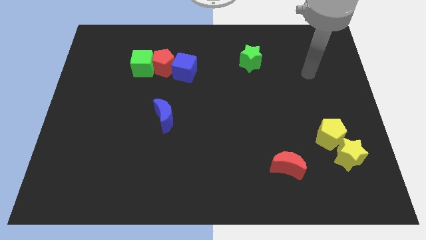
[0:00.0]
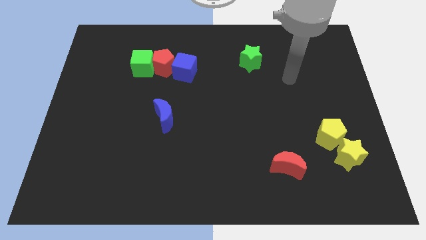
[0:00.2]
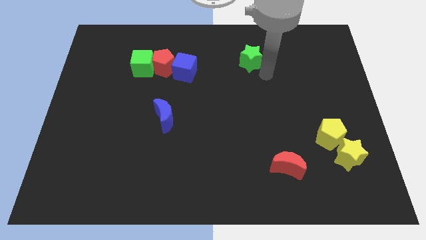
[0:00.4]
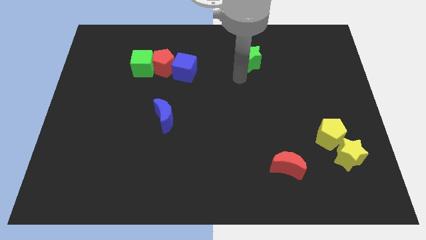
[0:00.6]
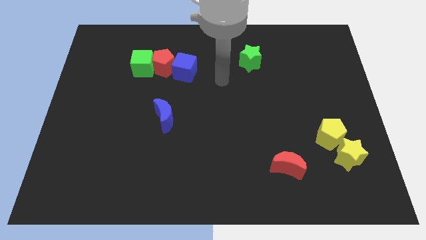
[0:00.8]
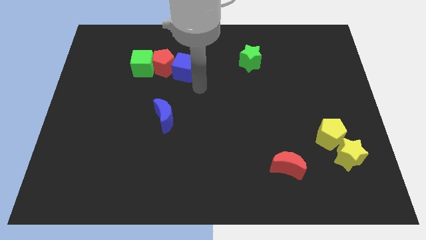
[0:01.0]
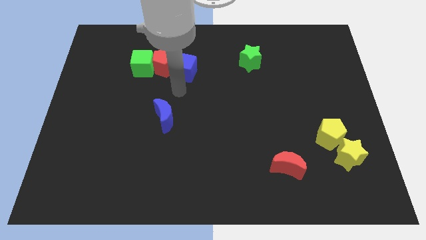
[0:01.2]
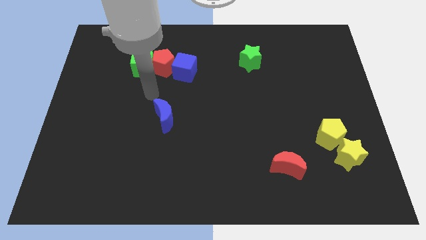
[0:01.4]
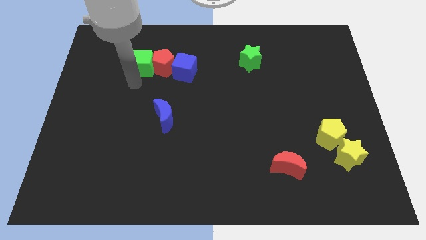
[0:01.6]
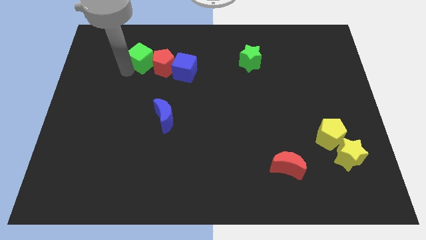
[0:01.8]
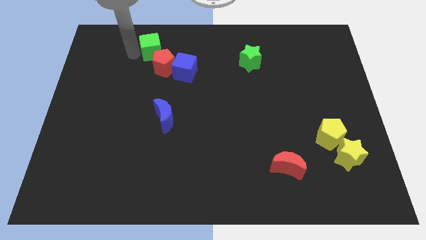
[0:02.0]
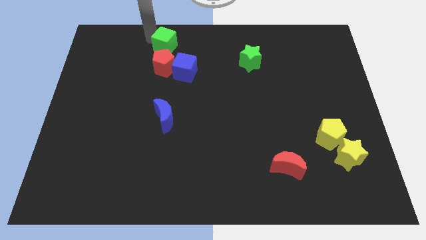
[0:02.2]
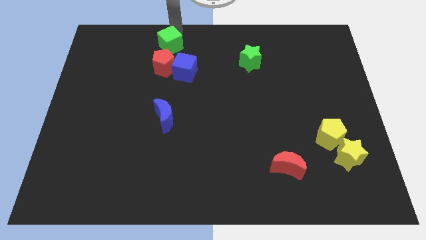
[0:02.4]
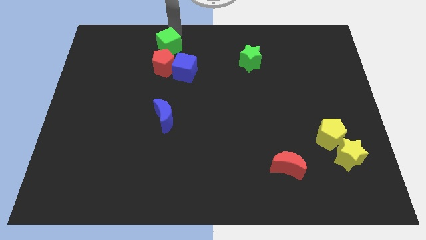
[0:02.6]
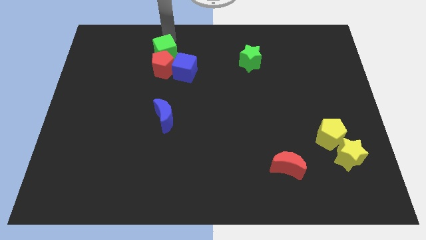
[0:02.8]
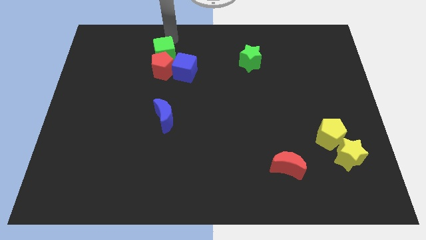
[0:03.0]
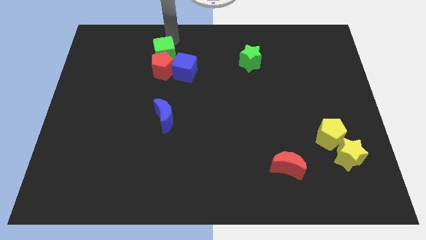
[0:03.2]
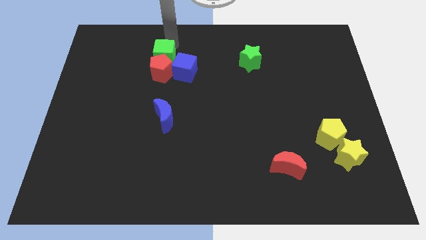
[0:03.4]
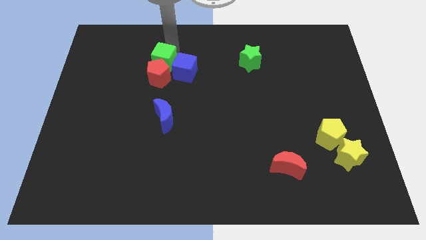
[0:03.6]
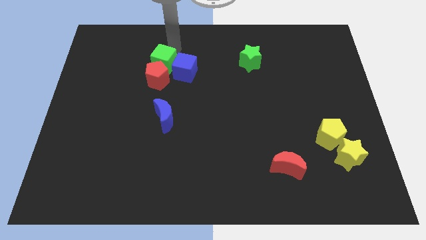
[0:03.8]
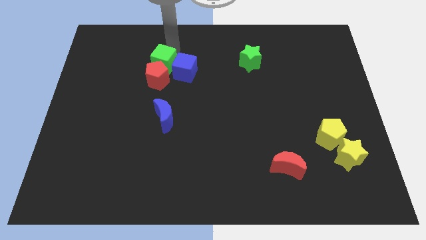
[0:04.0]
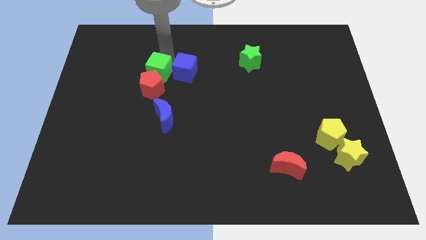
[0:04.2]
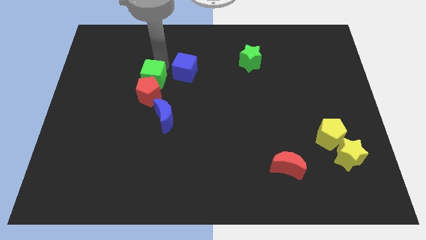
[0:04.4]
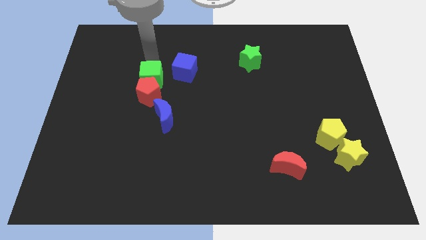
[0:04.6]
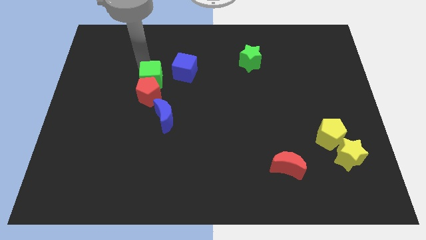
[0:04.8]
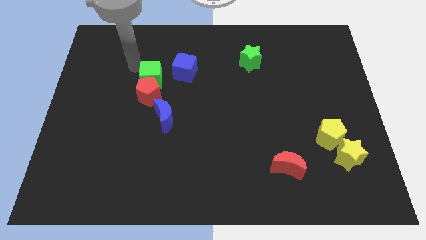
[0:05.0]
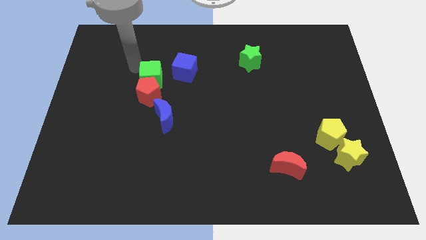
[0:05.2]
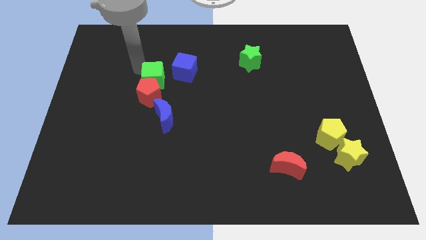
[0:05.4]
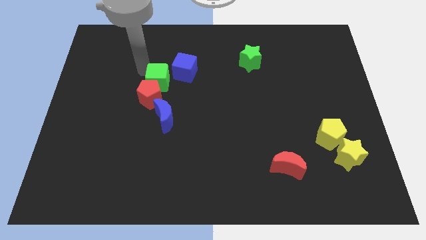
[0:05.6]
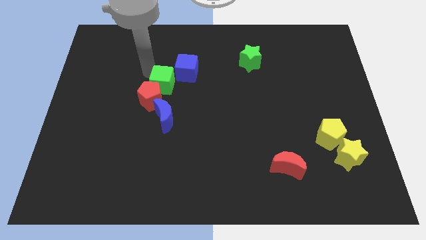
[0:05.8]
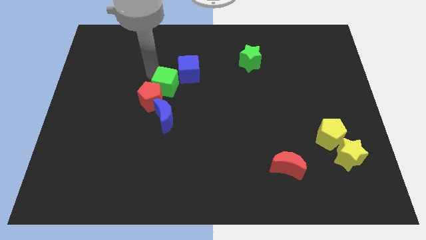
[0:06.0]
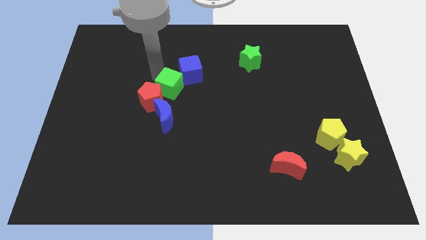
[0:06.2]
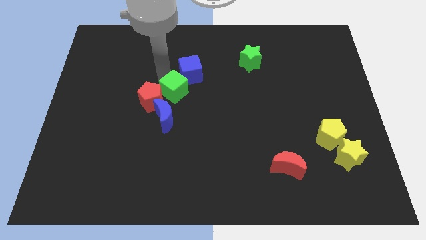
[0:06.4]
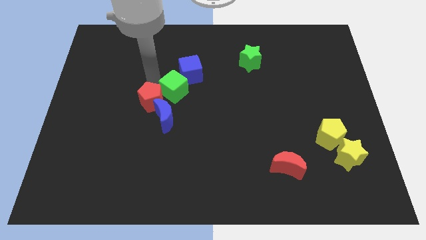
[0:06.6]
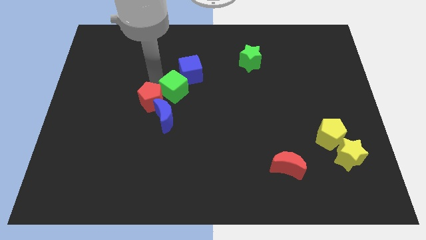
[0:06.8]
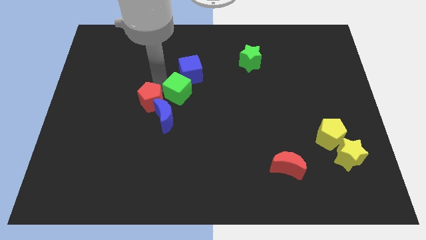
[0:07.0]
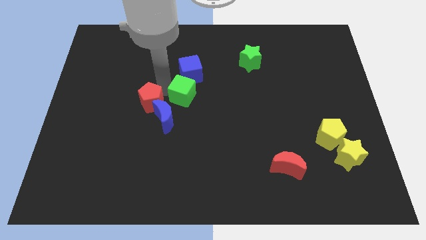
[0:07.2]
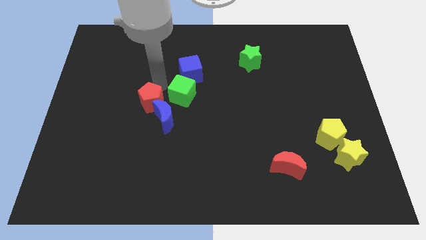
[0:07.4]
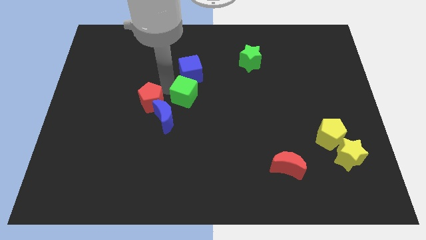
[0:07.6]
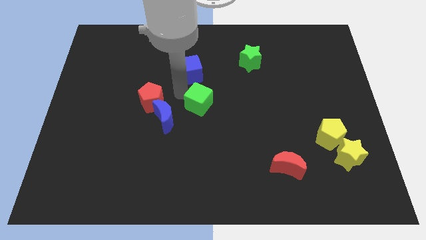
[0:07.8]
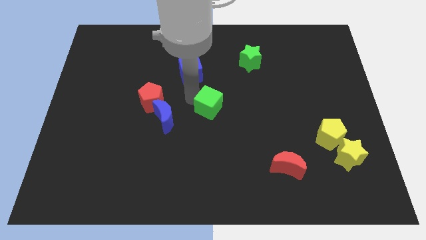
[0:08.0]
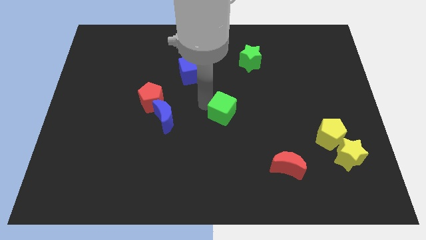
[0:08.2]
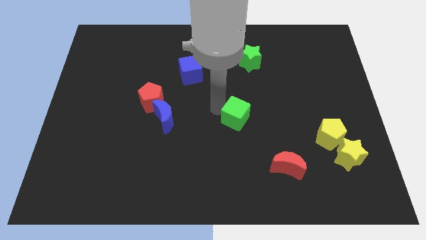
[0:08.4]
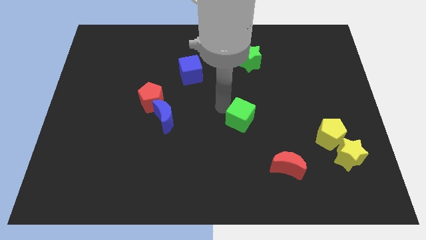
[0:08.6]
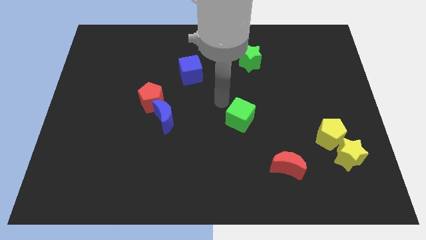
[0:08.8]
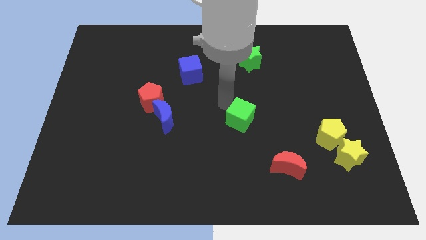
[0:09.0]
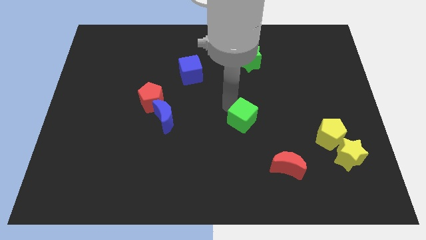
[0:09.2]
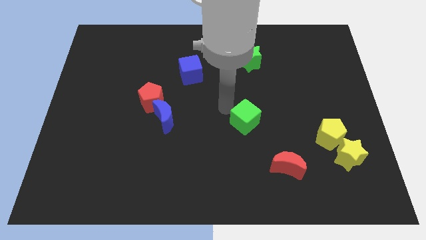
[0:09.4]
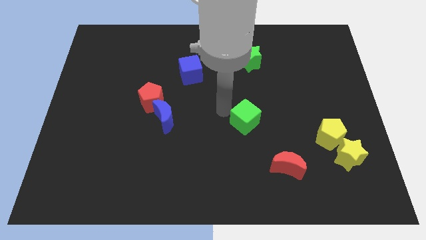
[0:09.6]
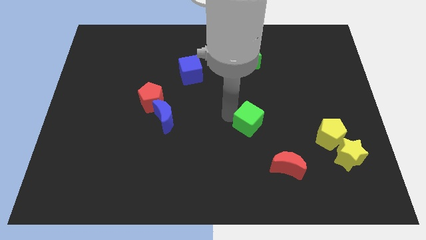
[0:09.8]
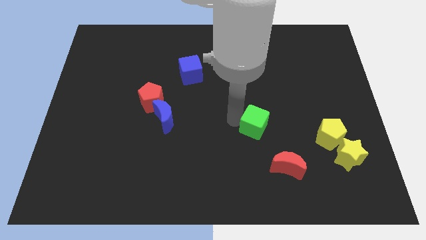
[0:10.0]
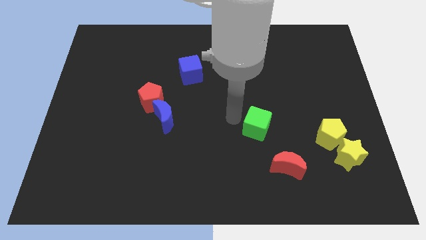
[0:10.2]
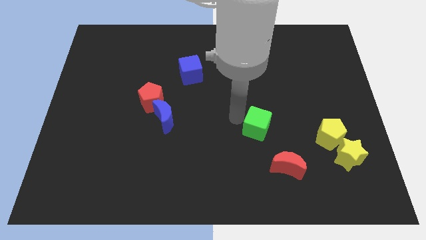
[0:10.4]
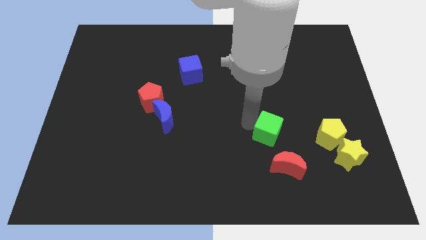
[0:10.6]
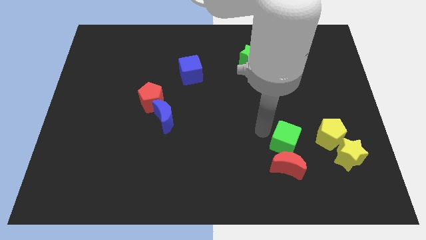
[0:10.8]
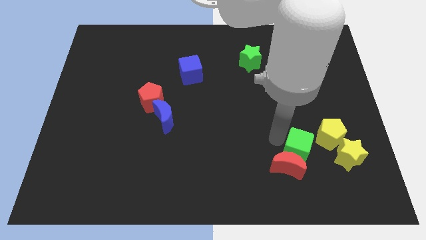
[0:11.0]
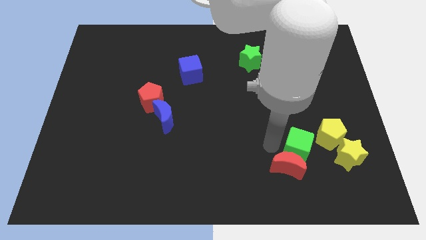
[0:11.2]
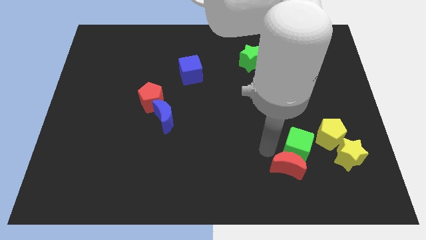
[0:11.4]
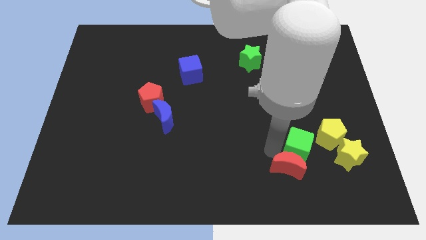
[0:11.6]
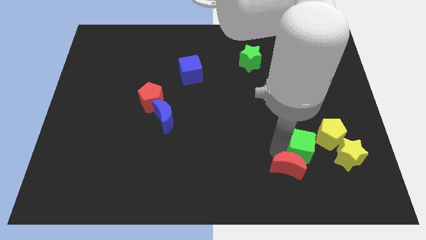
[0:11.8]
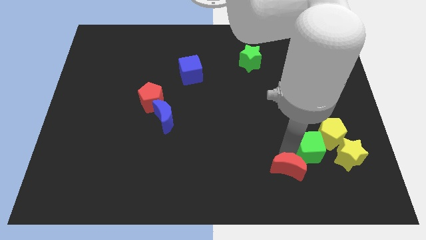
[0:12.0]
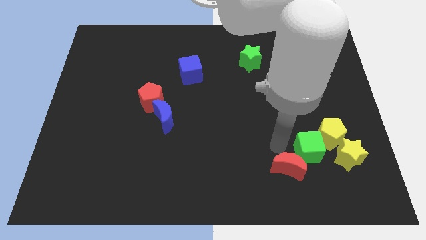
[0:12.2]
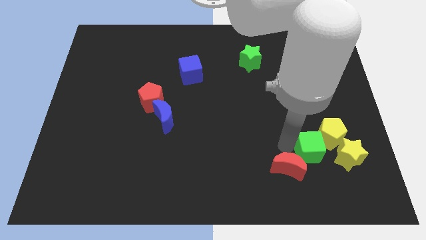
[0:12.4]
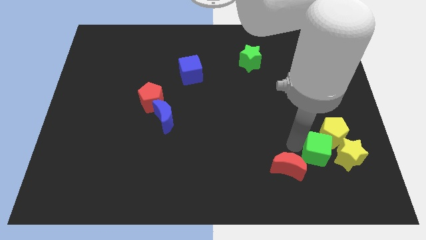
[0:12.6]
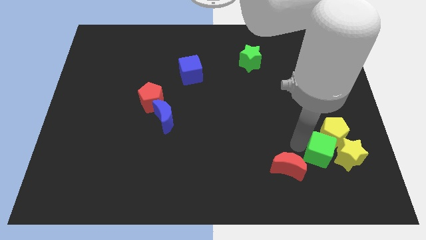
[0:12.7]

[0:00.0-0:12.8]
move the green cube towards the yellow star

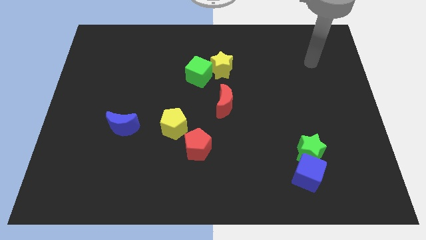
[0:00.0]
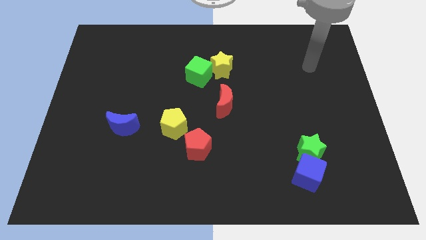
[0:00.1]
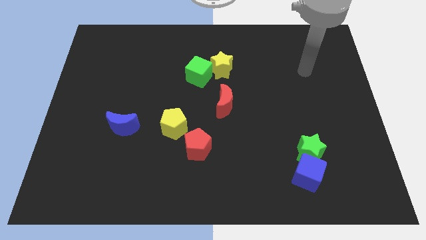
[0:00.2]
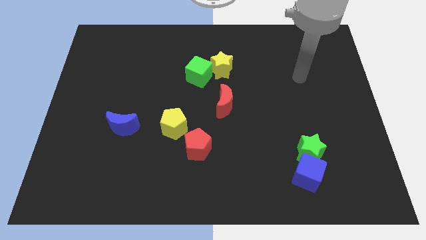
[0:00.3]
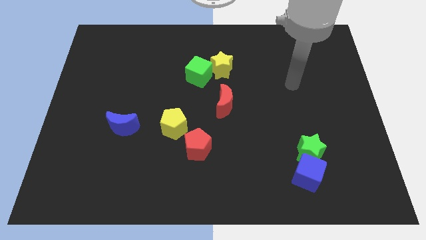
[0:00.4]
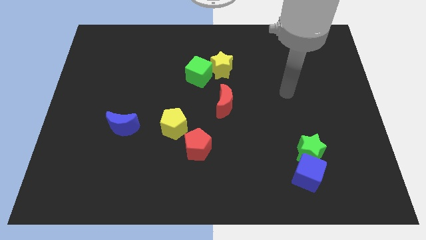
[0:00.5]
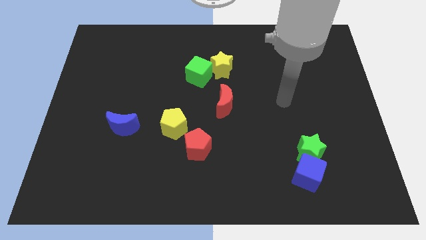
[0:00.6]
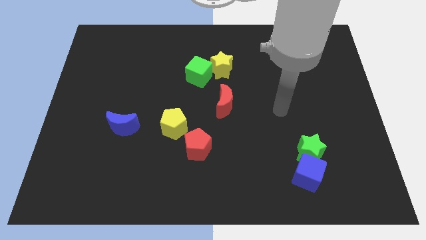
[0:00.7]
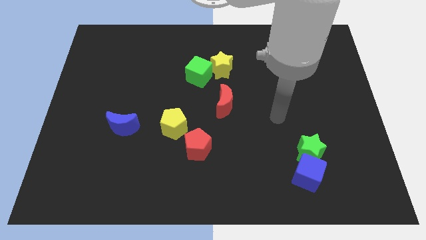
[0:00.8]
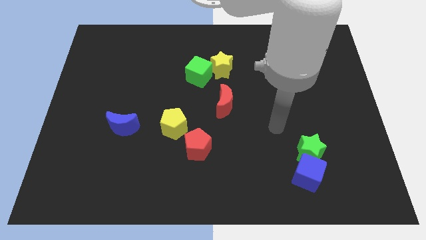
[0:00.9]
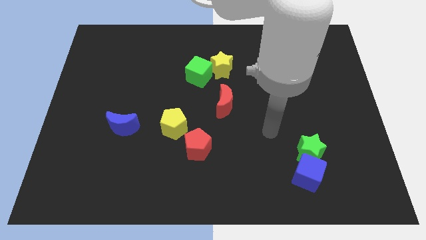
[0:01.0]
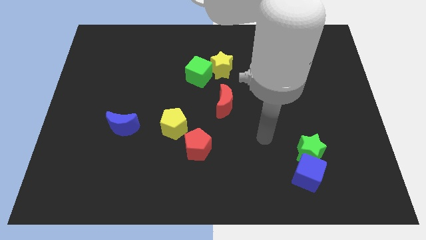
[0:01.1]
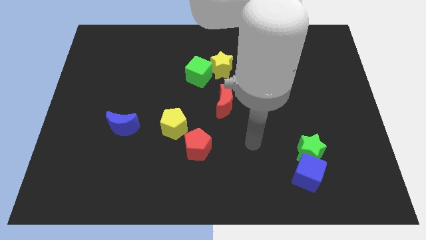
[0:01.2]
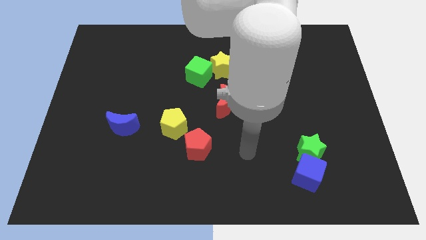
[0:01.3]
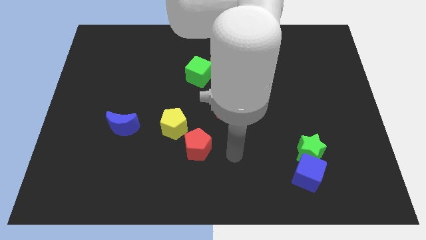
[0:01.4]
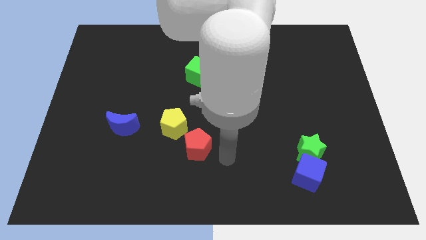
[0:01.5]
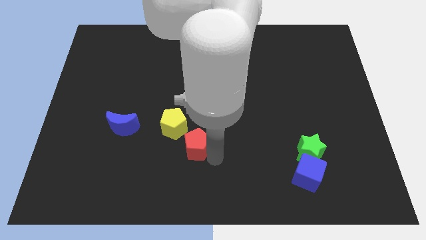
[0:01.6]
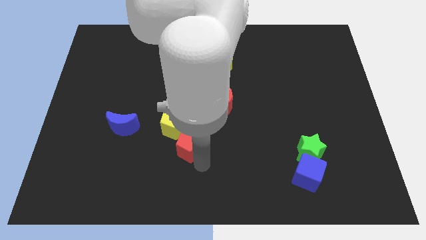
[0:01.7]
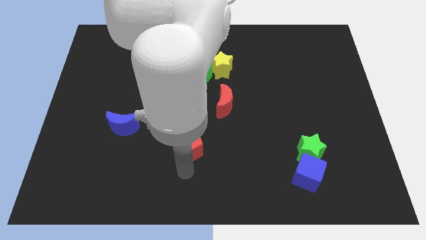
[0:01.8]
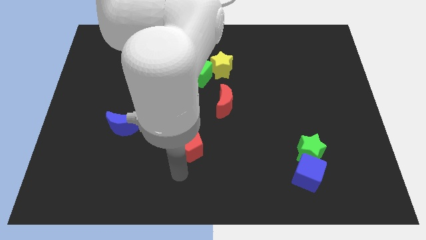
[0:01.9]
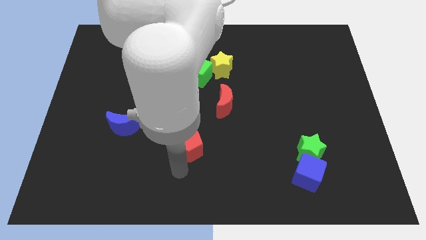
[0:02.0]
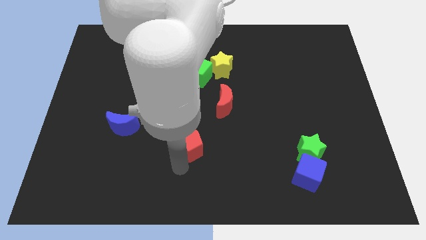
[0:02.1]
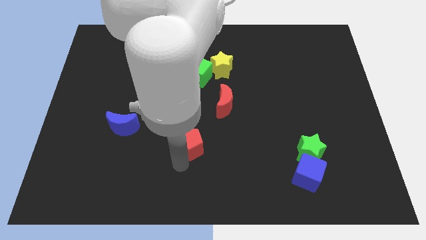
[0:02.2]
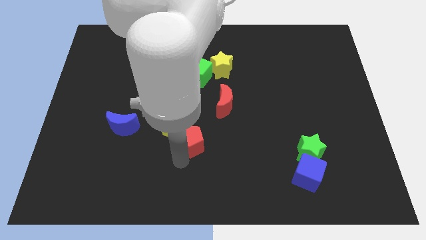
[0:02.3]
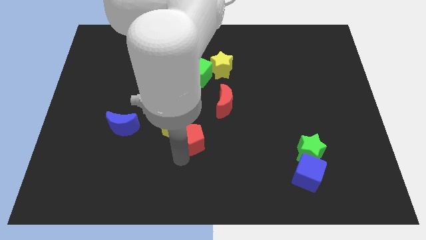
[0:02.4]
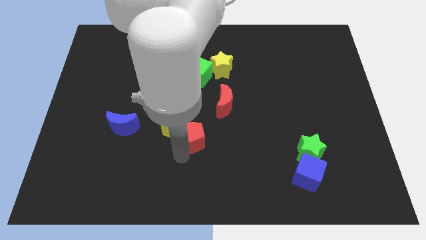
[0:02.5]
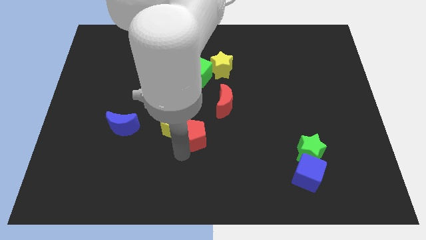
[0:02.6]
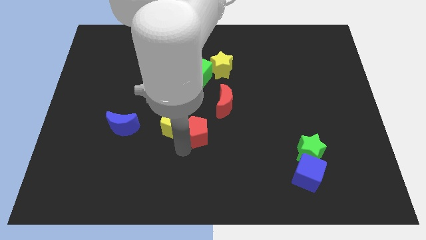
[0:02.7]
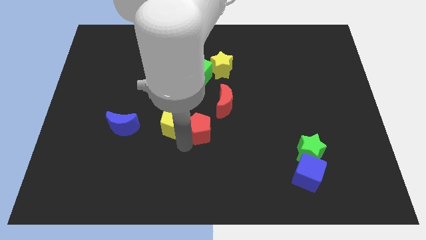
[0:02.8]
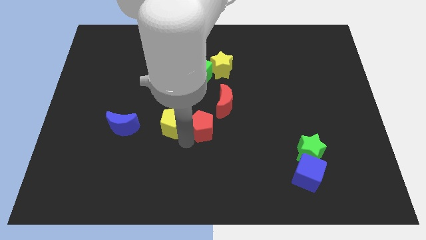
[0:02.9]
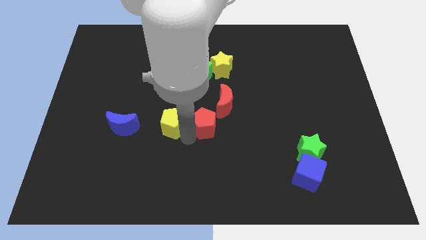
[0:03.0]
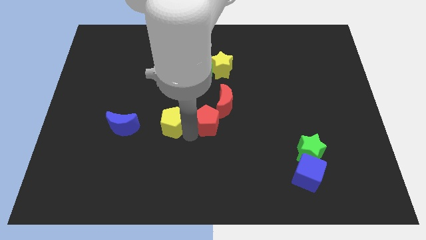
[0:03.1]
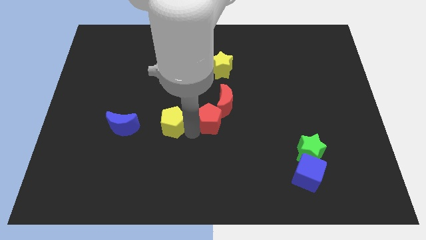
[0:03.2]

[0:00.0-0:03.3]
slide the red pentagon towards the red moon
